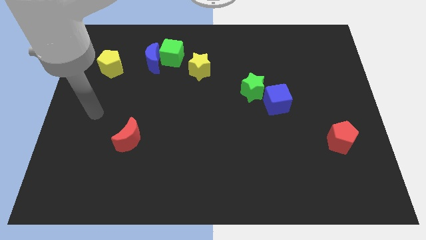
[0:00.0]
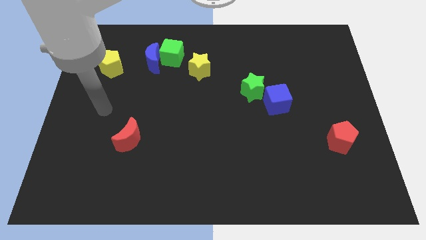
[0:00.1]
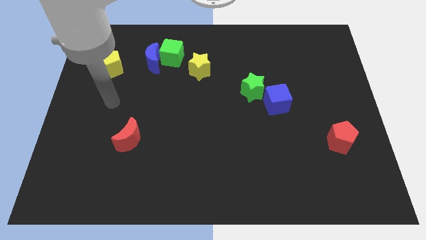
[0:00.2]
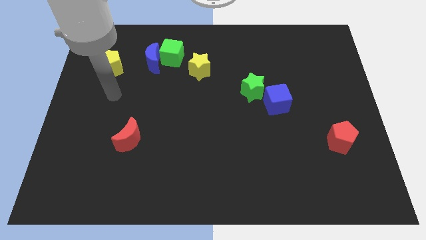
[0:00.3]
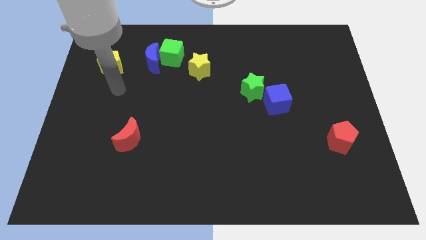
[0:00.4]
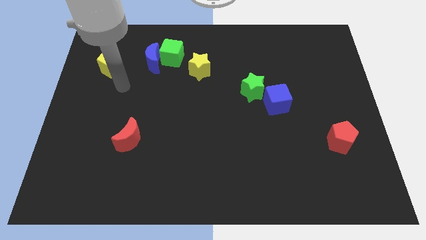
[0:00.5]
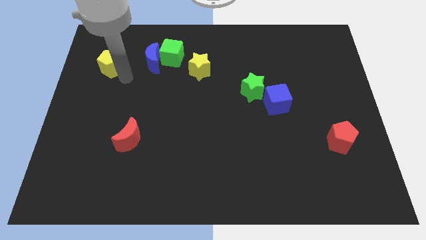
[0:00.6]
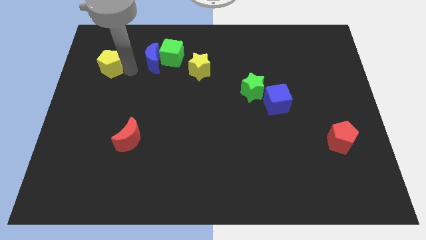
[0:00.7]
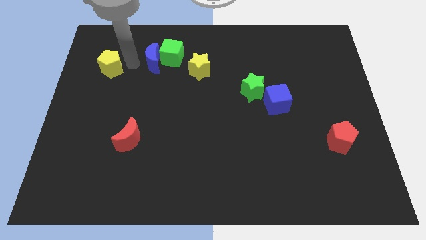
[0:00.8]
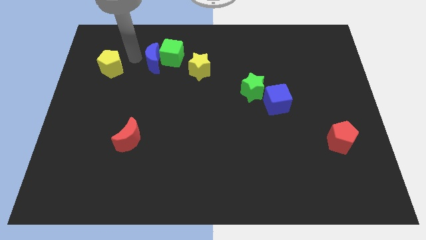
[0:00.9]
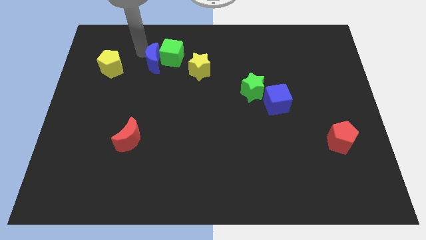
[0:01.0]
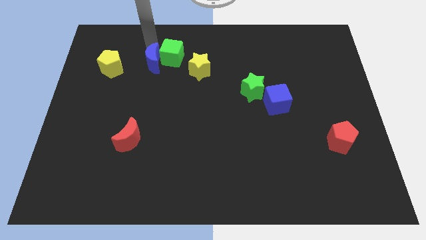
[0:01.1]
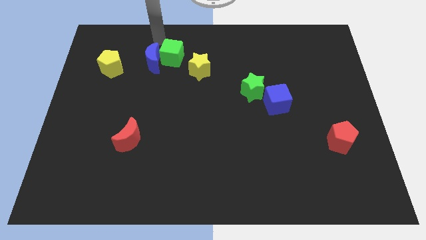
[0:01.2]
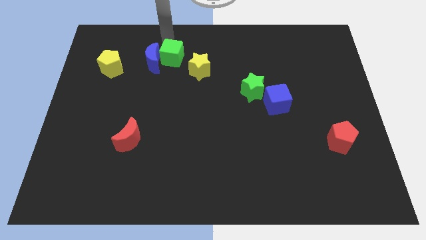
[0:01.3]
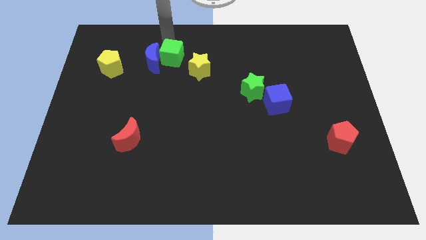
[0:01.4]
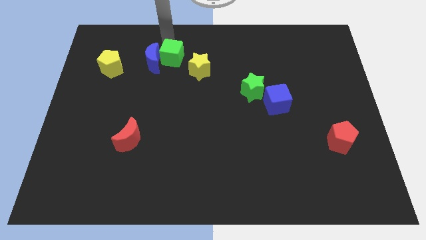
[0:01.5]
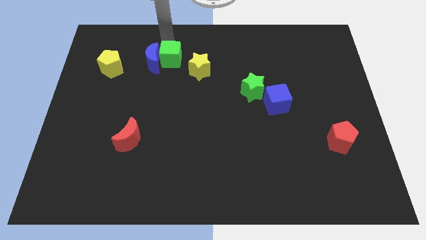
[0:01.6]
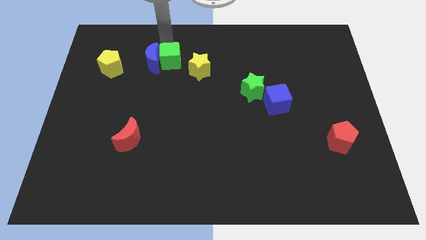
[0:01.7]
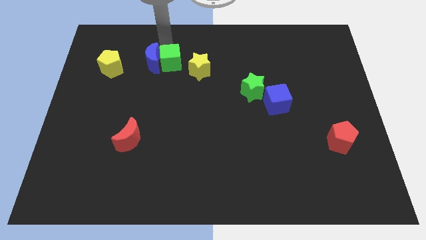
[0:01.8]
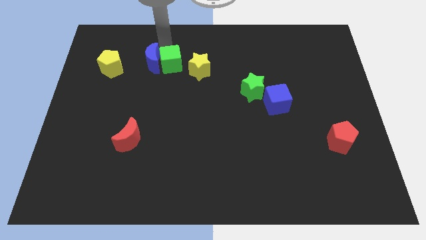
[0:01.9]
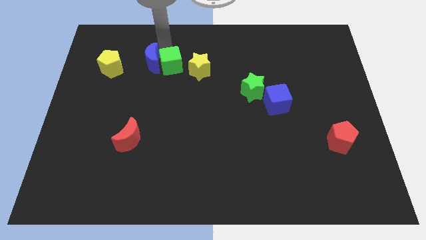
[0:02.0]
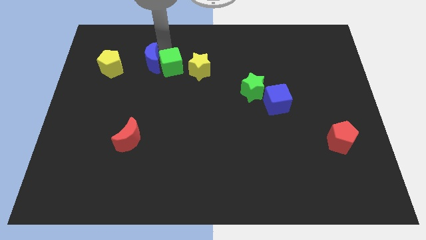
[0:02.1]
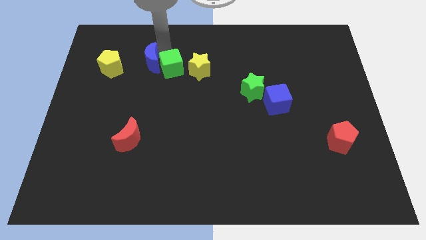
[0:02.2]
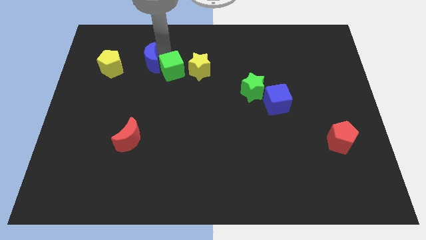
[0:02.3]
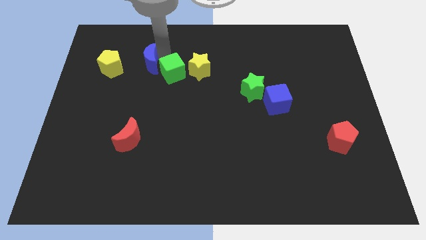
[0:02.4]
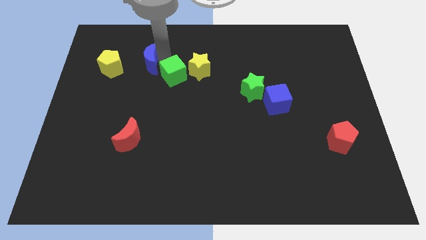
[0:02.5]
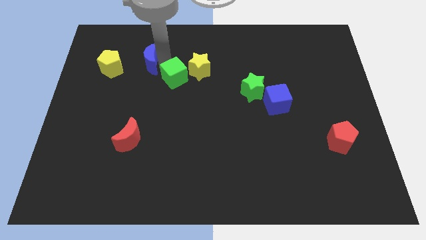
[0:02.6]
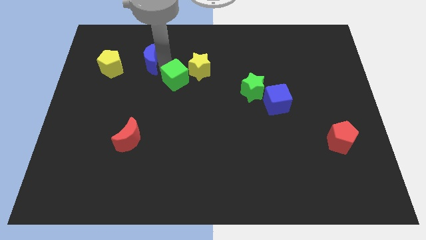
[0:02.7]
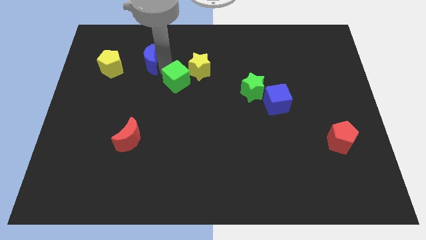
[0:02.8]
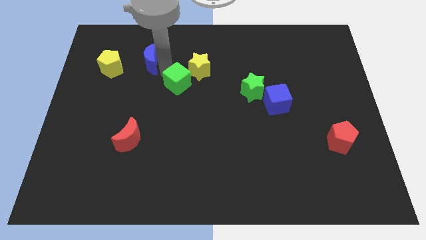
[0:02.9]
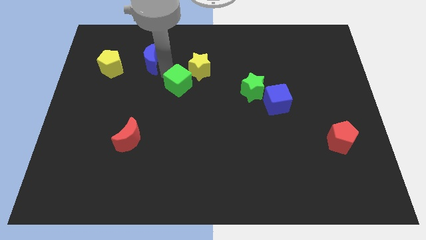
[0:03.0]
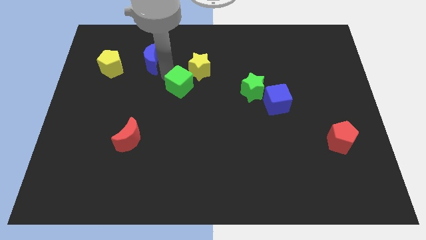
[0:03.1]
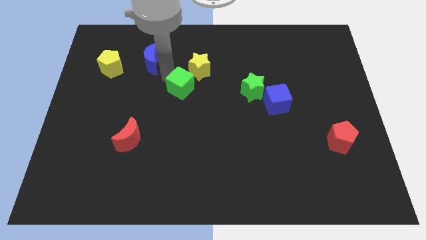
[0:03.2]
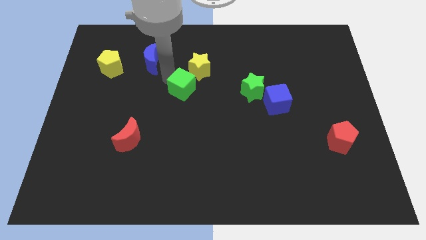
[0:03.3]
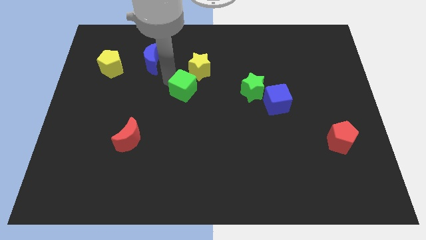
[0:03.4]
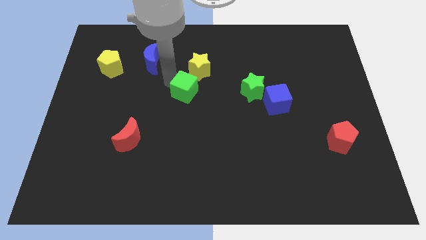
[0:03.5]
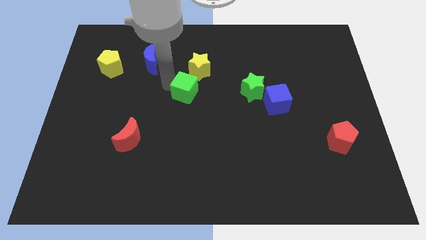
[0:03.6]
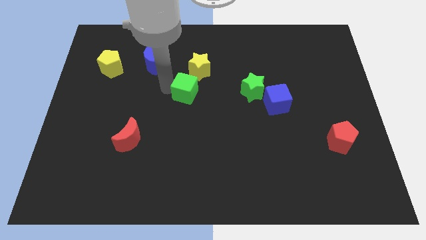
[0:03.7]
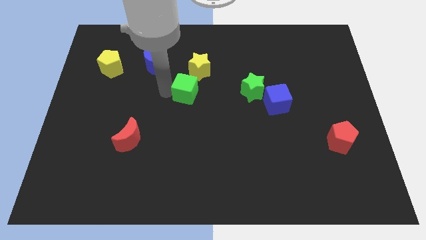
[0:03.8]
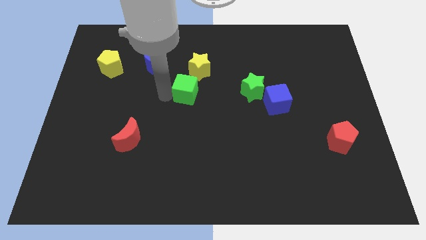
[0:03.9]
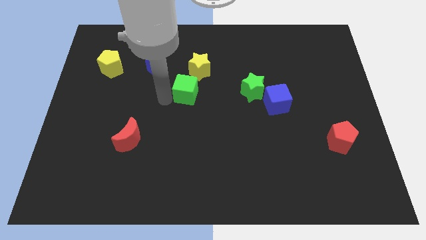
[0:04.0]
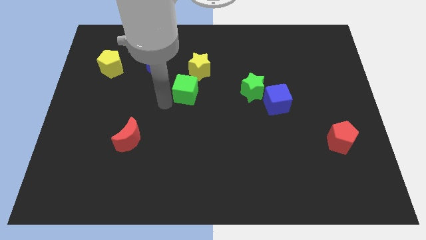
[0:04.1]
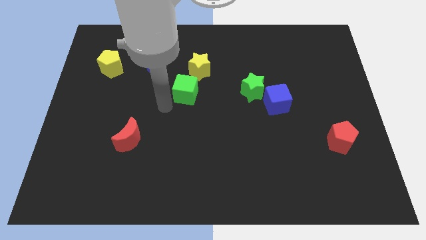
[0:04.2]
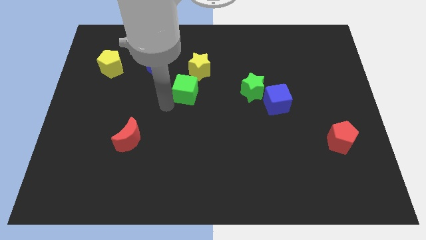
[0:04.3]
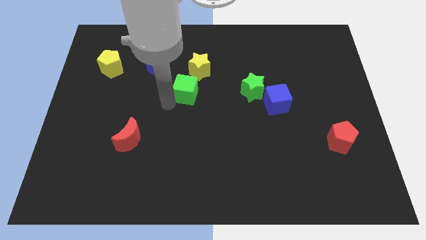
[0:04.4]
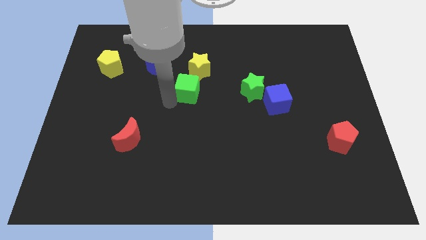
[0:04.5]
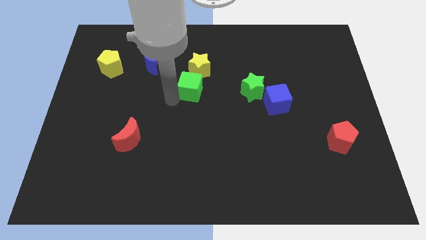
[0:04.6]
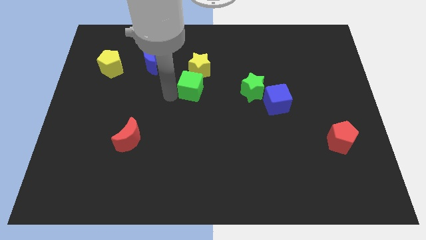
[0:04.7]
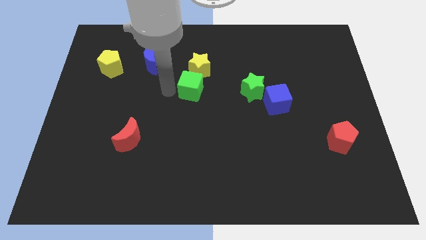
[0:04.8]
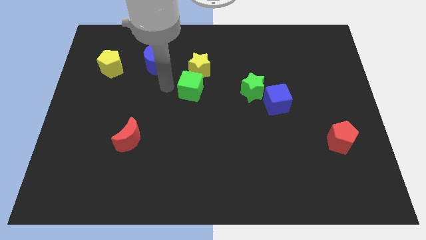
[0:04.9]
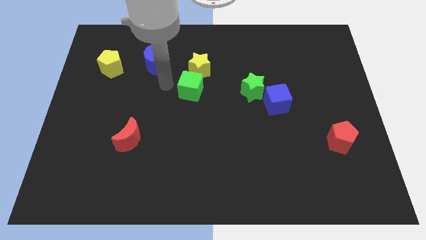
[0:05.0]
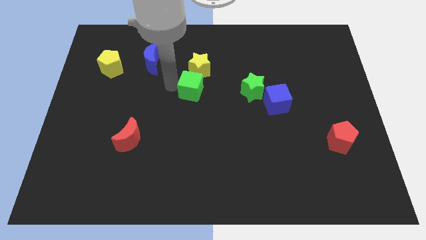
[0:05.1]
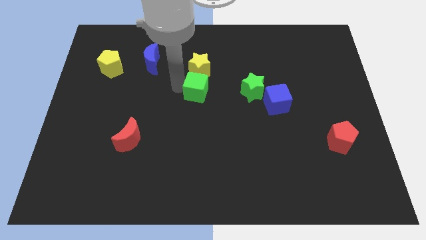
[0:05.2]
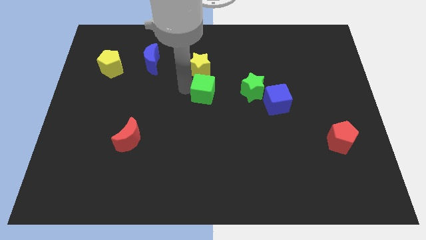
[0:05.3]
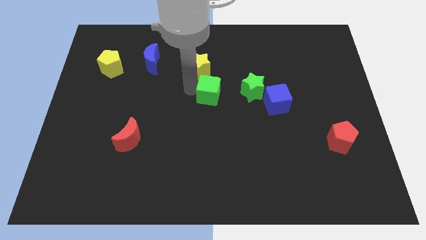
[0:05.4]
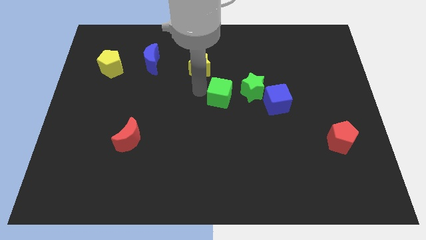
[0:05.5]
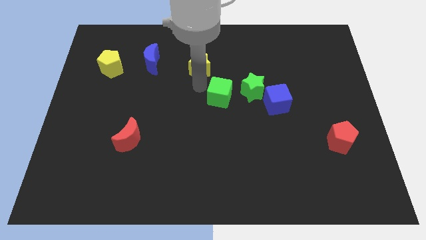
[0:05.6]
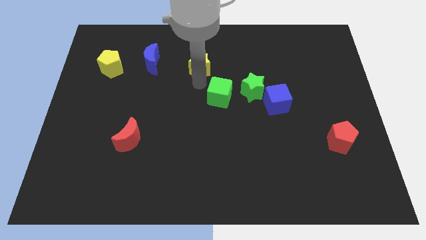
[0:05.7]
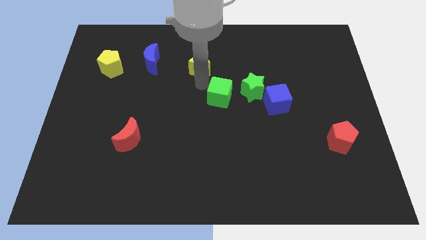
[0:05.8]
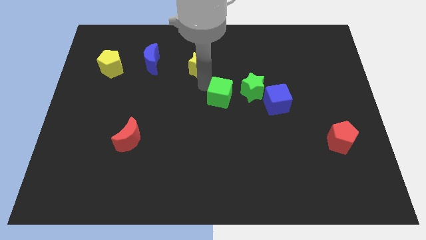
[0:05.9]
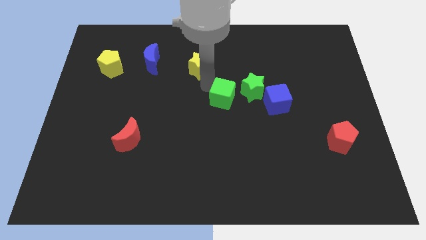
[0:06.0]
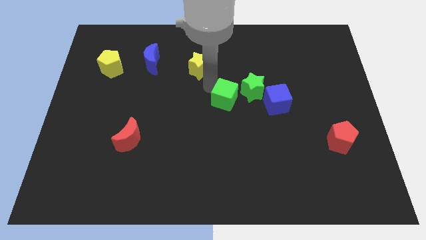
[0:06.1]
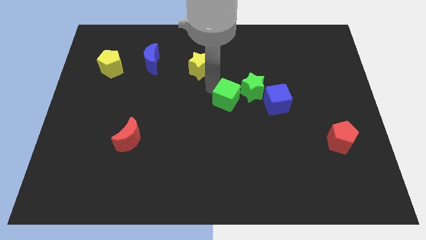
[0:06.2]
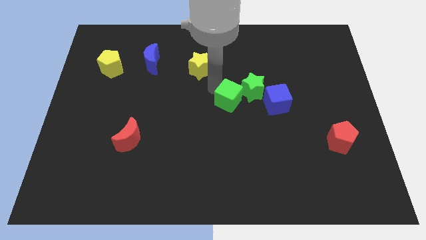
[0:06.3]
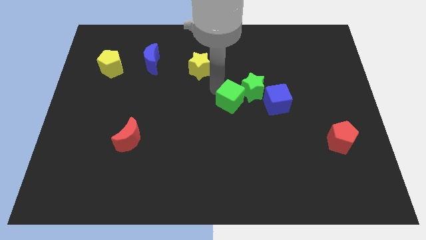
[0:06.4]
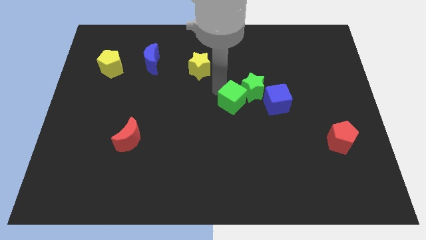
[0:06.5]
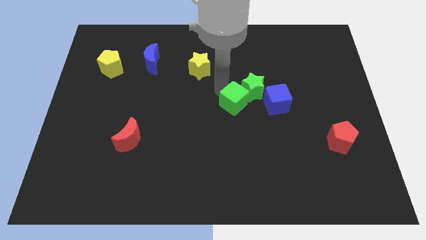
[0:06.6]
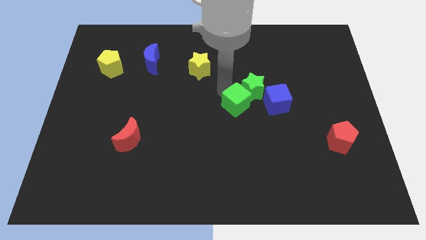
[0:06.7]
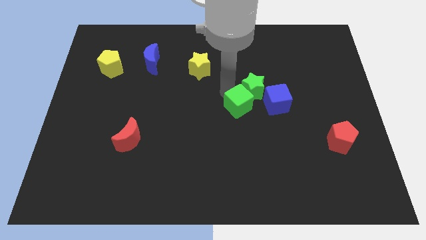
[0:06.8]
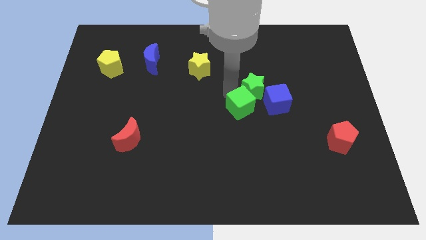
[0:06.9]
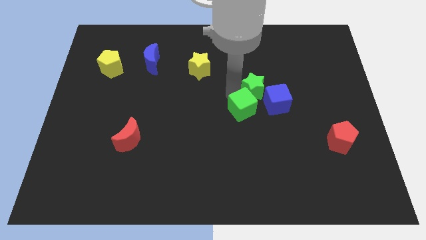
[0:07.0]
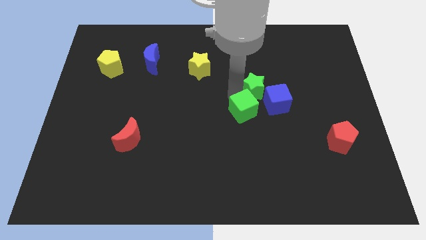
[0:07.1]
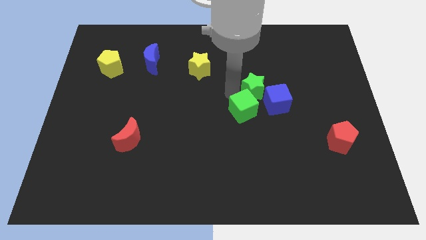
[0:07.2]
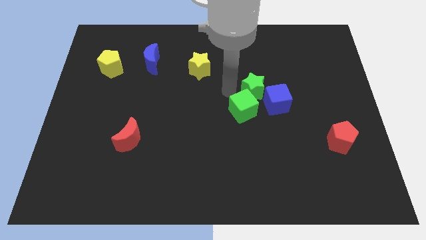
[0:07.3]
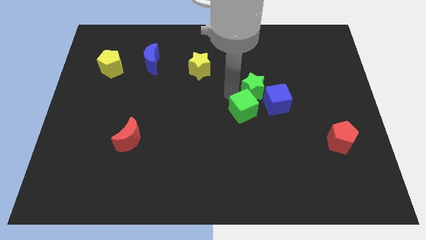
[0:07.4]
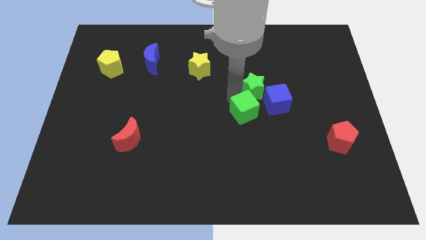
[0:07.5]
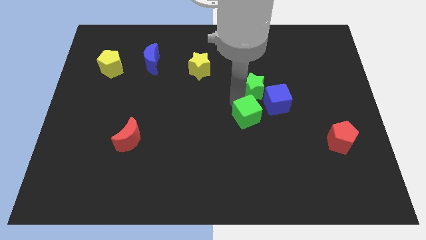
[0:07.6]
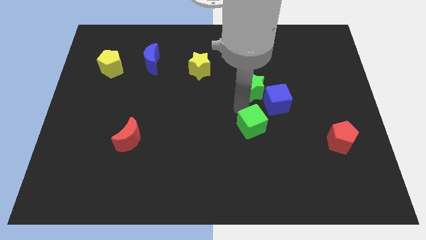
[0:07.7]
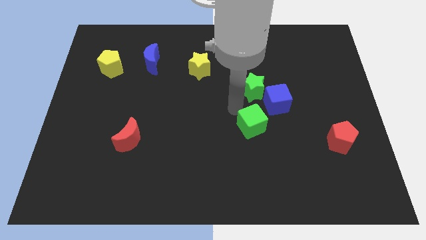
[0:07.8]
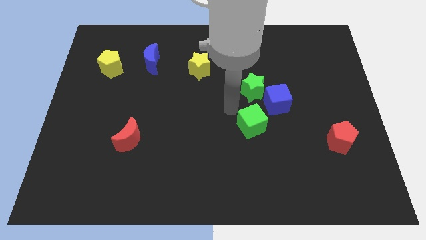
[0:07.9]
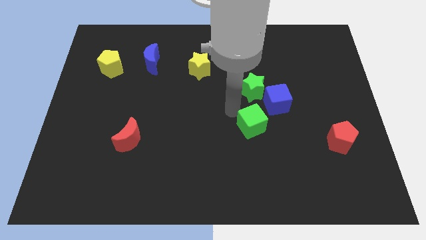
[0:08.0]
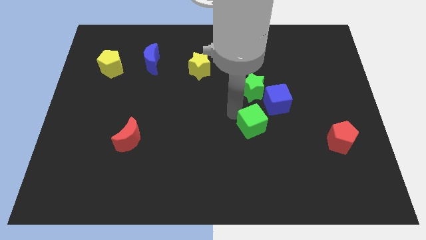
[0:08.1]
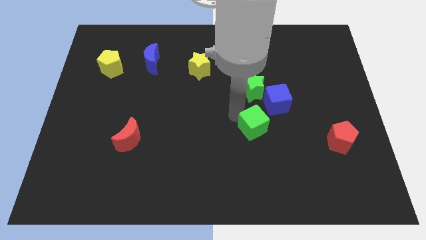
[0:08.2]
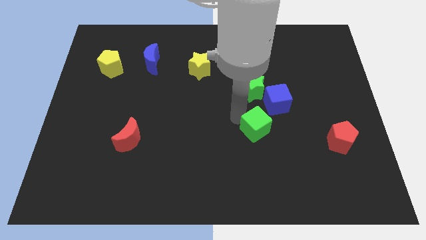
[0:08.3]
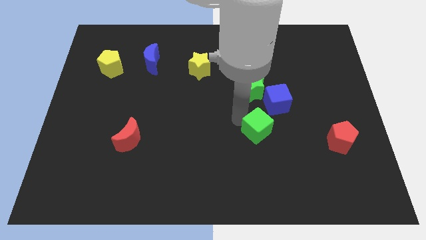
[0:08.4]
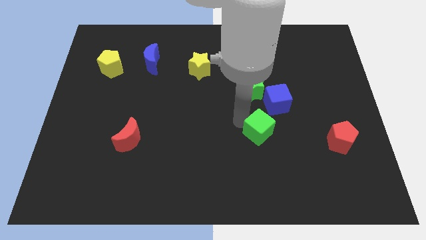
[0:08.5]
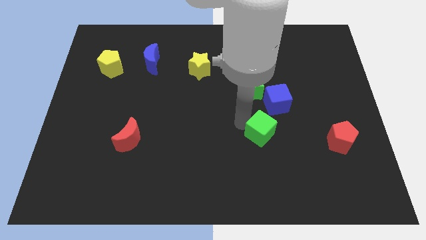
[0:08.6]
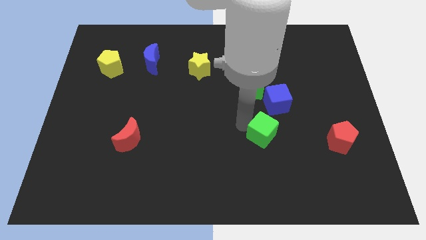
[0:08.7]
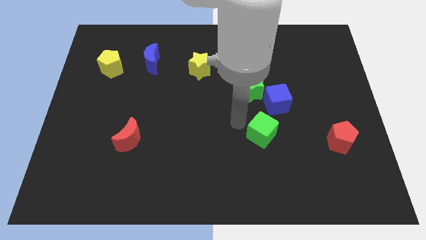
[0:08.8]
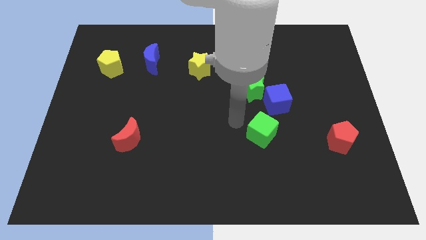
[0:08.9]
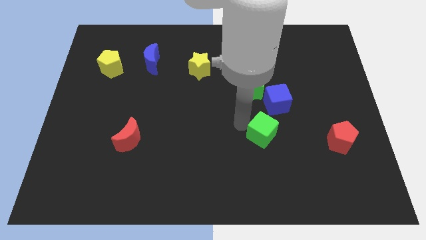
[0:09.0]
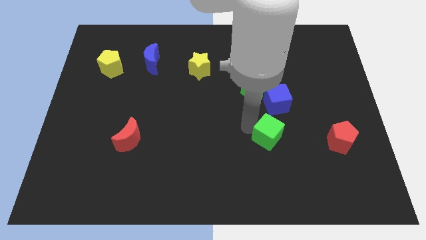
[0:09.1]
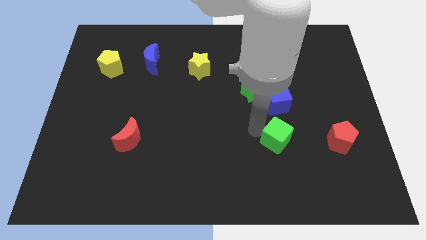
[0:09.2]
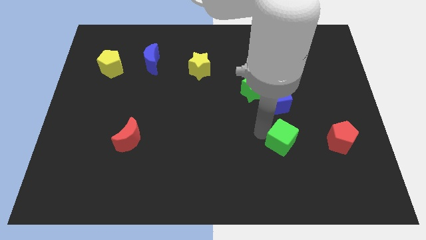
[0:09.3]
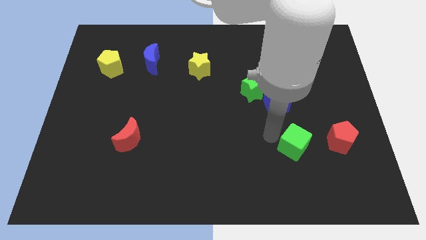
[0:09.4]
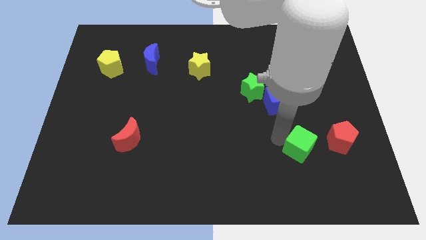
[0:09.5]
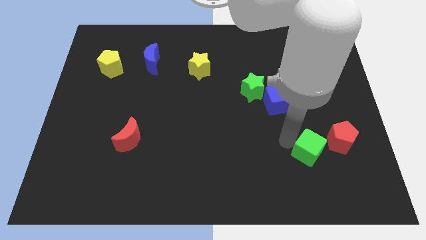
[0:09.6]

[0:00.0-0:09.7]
slide the green cube to the bottom left side of the red pentagon
